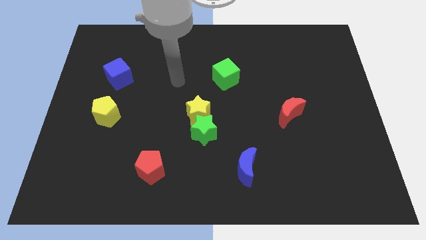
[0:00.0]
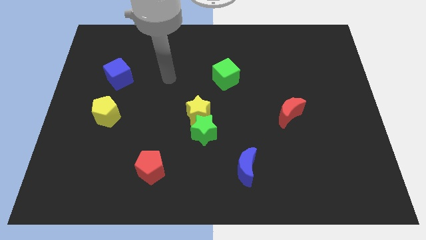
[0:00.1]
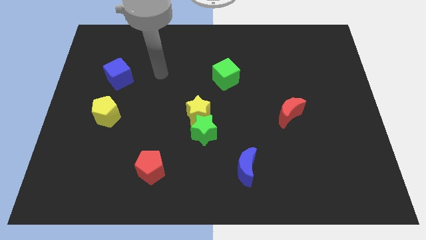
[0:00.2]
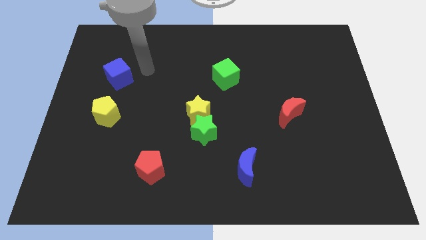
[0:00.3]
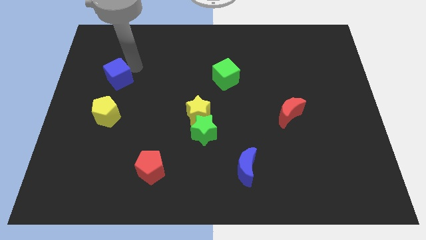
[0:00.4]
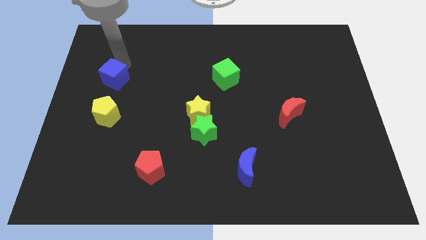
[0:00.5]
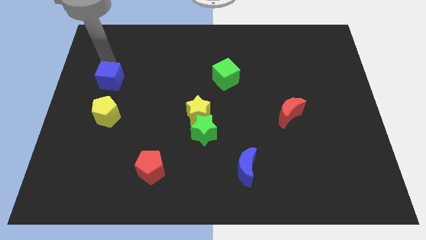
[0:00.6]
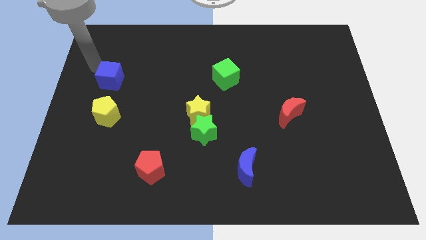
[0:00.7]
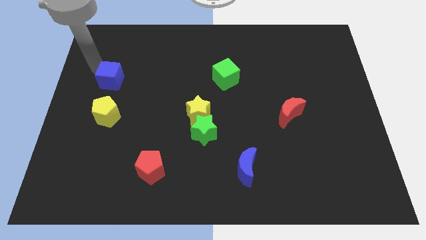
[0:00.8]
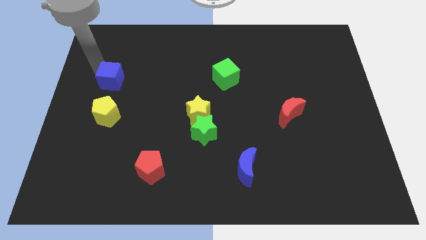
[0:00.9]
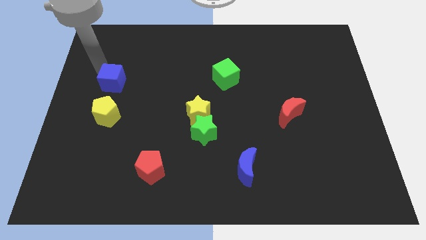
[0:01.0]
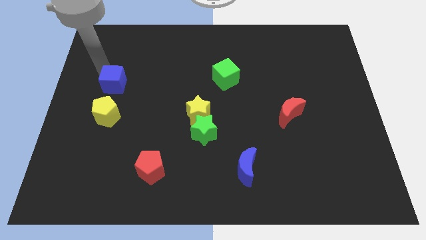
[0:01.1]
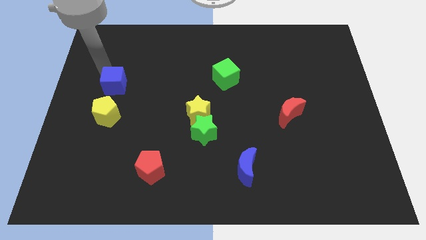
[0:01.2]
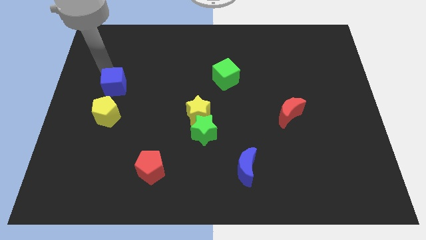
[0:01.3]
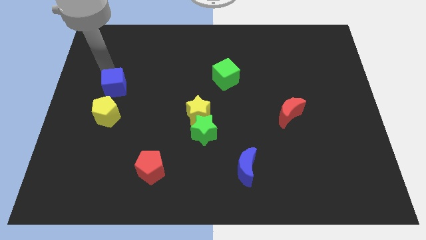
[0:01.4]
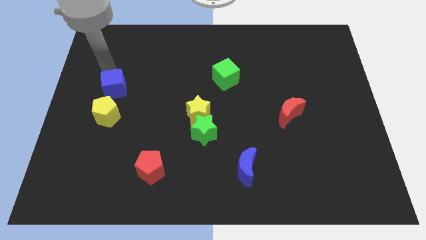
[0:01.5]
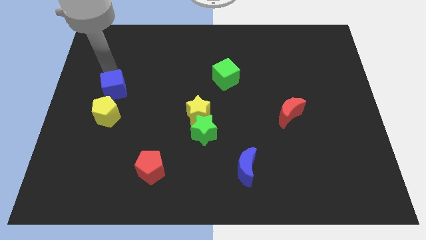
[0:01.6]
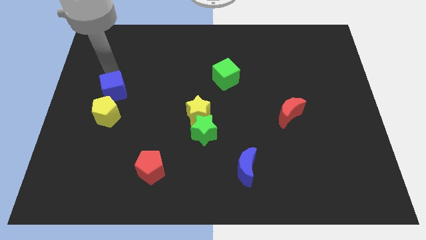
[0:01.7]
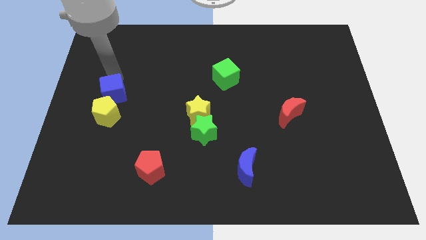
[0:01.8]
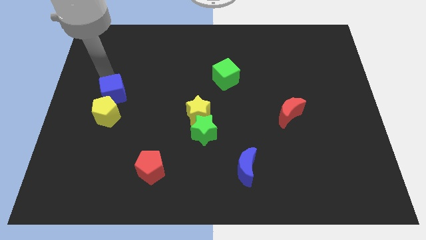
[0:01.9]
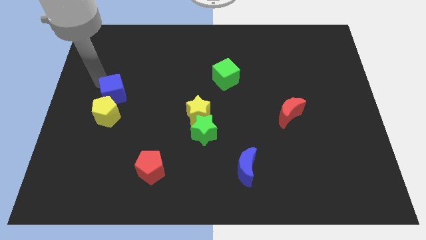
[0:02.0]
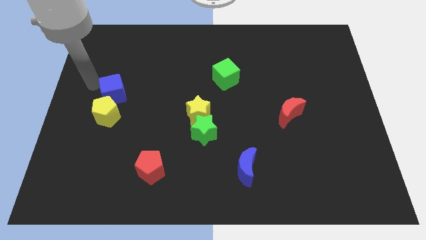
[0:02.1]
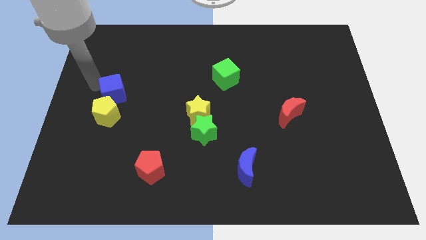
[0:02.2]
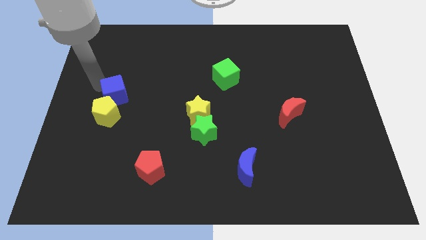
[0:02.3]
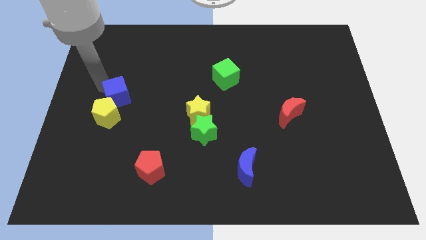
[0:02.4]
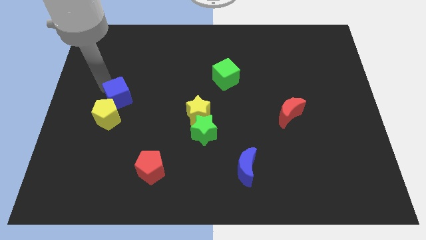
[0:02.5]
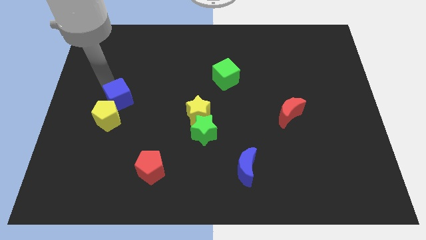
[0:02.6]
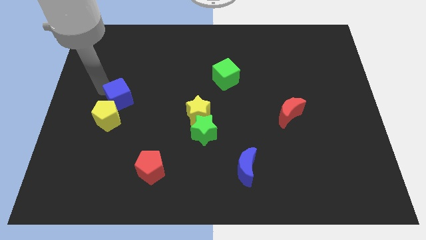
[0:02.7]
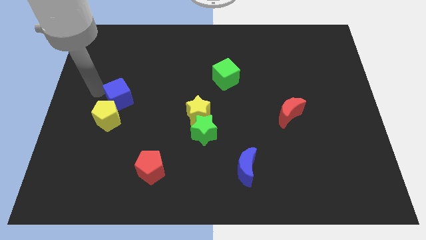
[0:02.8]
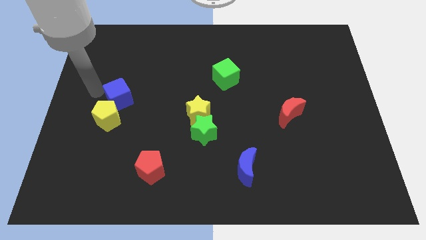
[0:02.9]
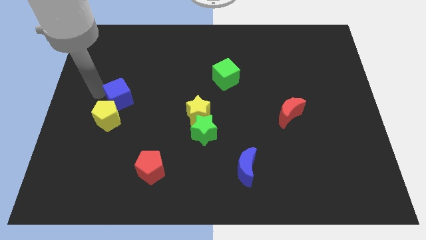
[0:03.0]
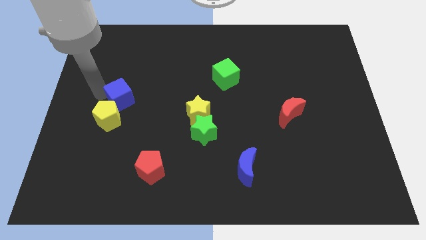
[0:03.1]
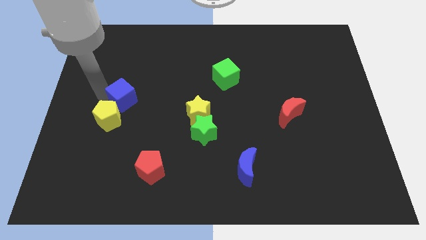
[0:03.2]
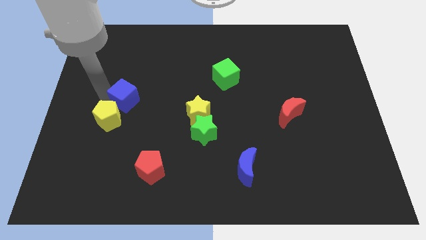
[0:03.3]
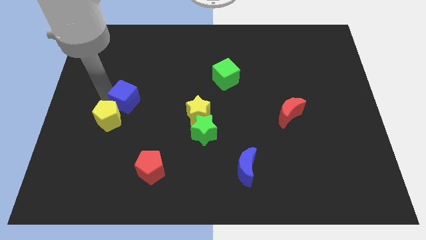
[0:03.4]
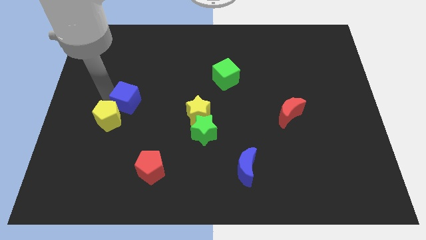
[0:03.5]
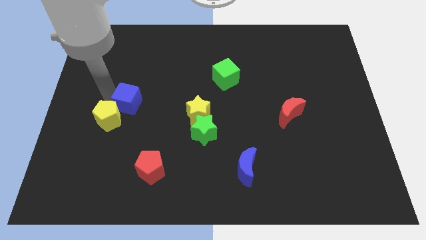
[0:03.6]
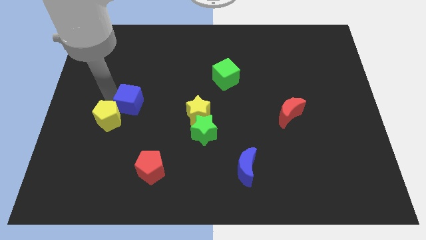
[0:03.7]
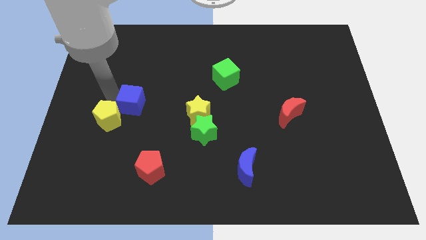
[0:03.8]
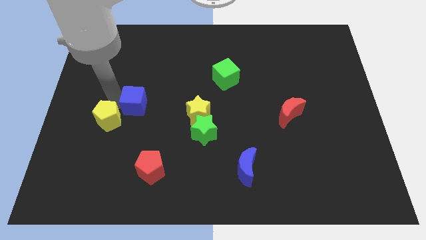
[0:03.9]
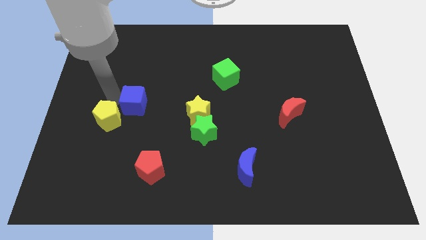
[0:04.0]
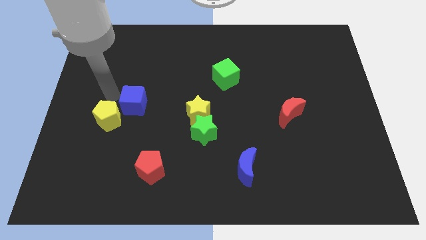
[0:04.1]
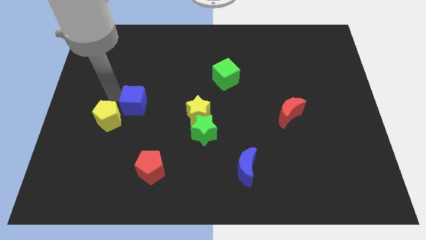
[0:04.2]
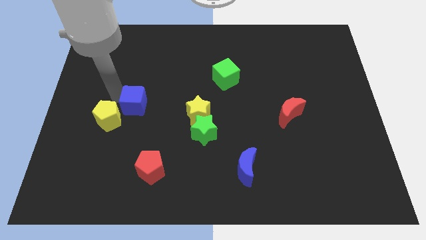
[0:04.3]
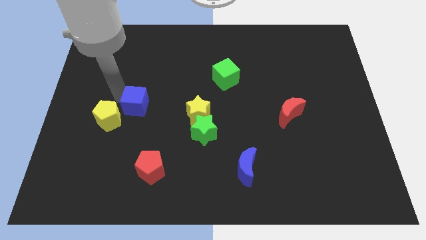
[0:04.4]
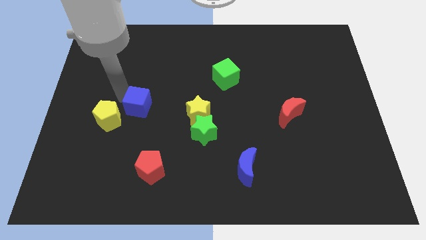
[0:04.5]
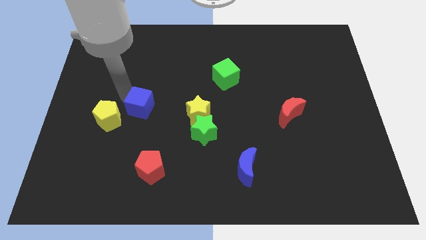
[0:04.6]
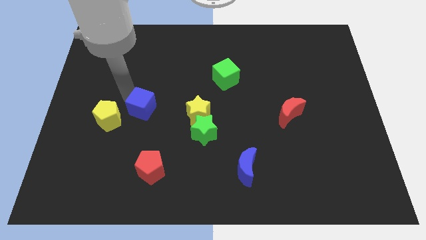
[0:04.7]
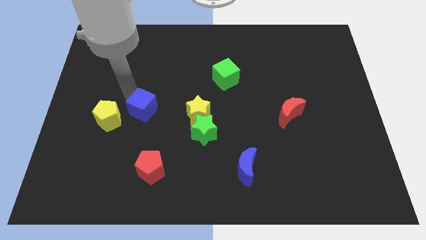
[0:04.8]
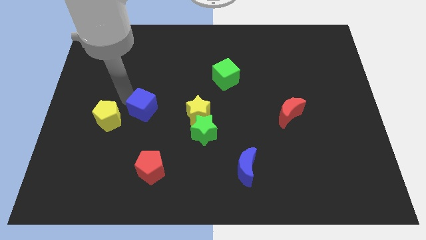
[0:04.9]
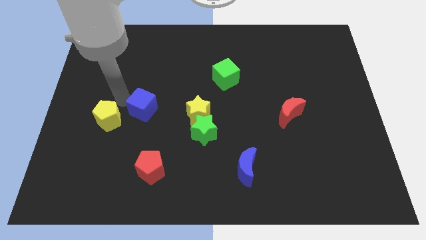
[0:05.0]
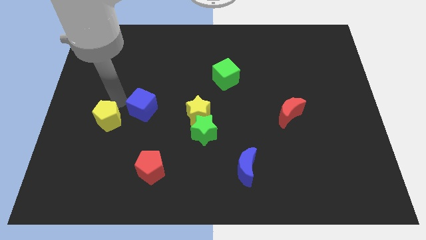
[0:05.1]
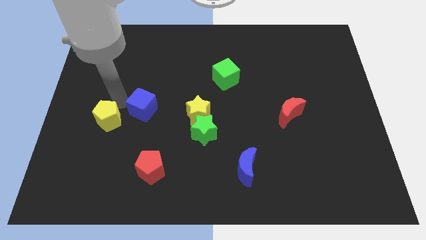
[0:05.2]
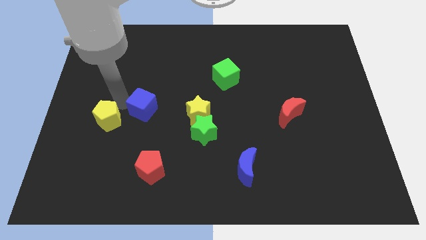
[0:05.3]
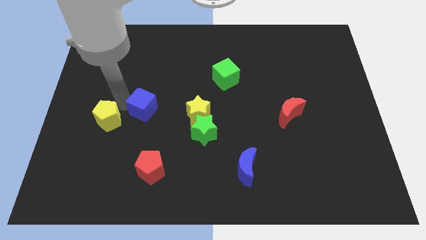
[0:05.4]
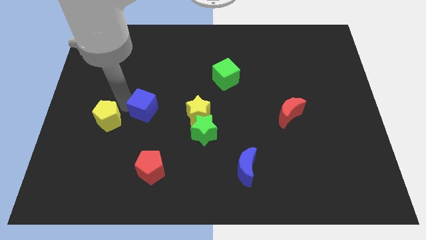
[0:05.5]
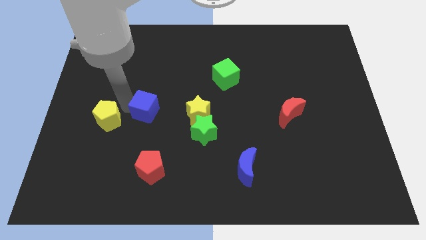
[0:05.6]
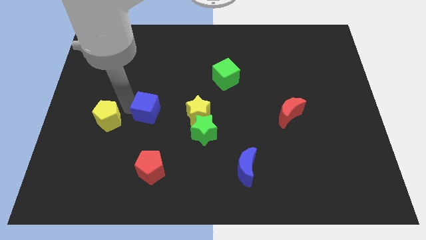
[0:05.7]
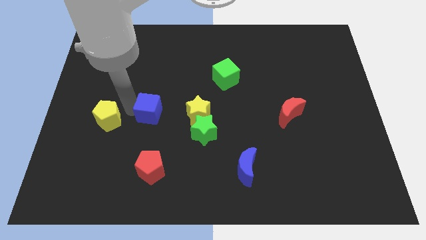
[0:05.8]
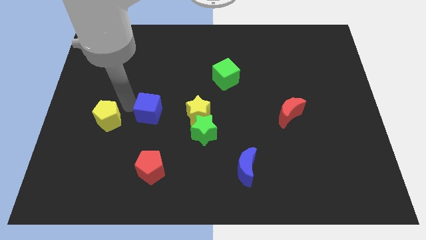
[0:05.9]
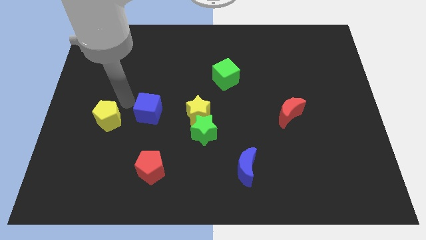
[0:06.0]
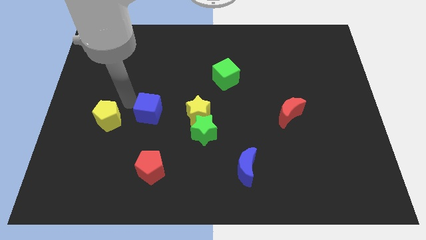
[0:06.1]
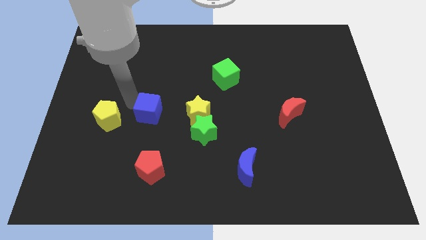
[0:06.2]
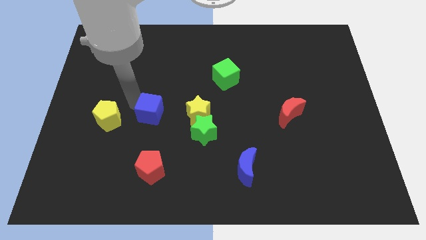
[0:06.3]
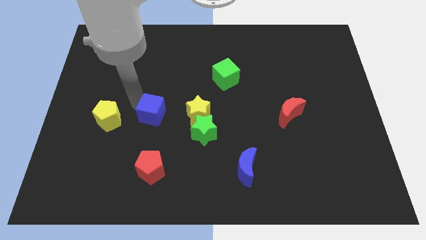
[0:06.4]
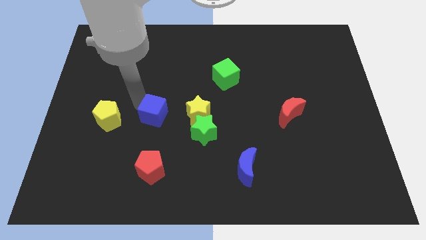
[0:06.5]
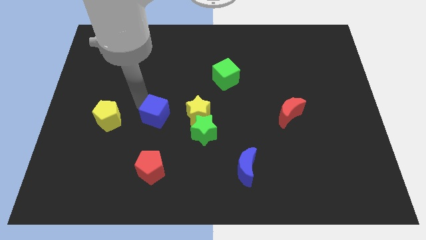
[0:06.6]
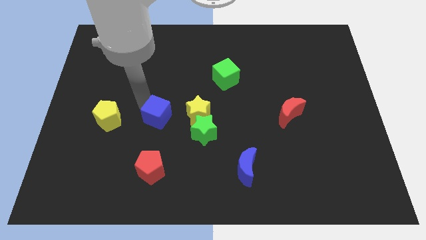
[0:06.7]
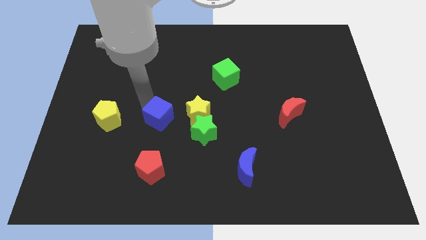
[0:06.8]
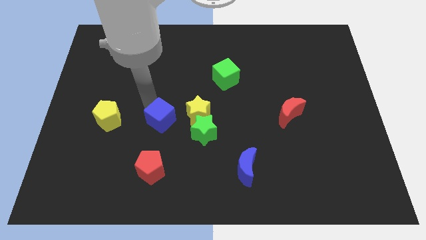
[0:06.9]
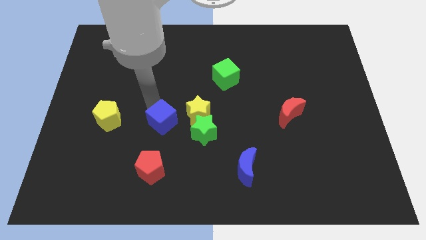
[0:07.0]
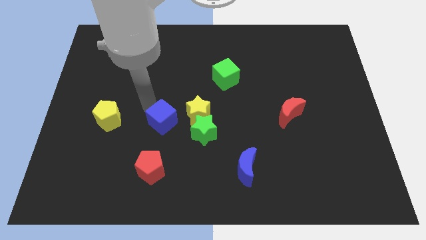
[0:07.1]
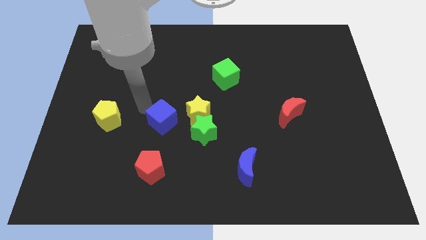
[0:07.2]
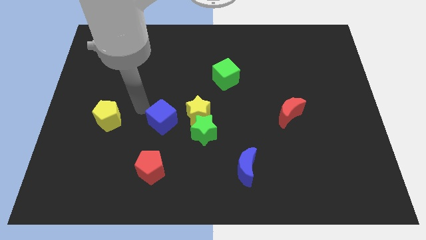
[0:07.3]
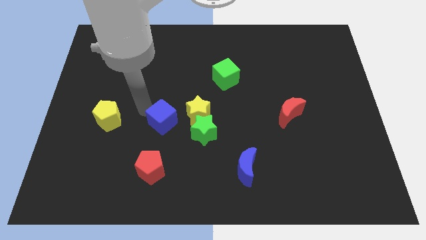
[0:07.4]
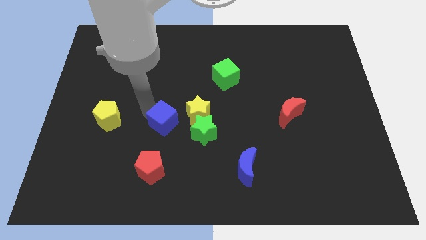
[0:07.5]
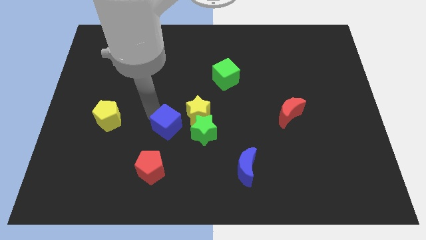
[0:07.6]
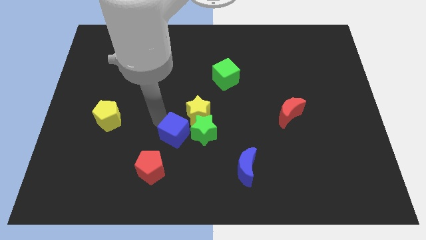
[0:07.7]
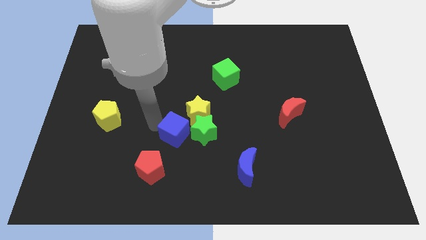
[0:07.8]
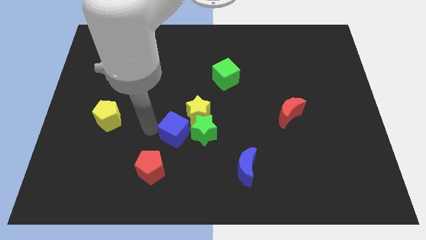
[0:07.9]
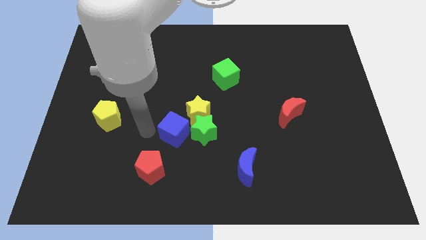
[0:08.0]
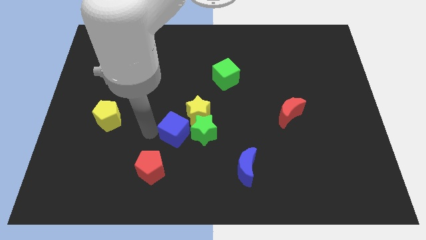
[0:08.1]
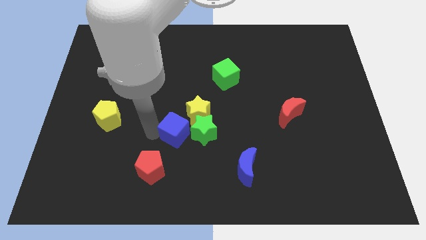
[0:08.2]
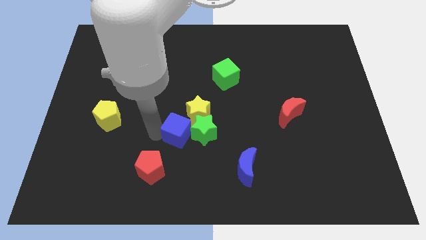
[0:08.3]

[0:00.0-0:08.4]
put the blue cube to the green star
